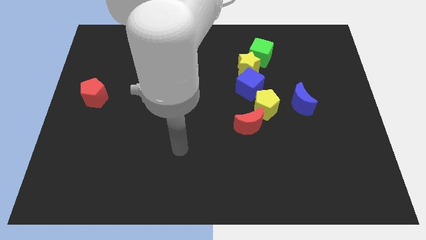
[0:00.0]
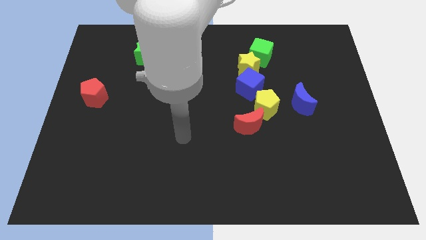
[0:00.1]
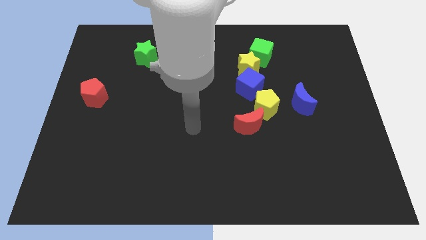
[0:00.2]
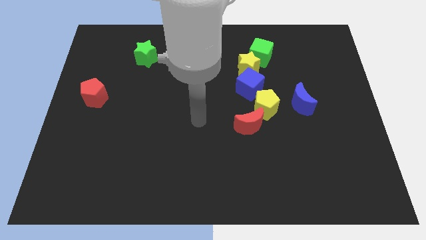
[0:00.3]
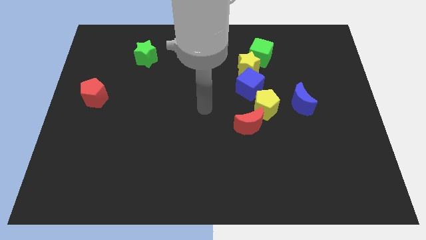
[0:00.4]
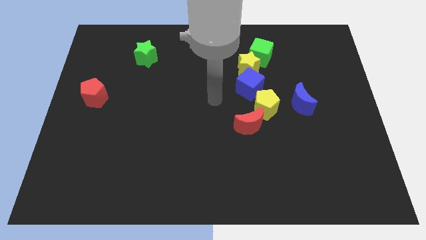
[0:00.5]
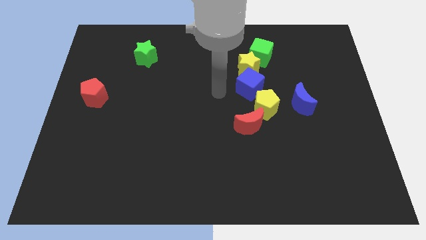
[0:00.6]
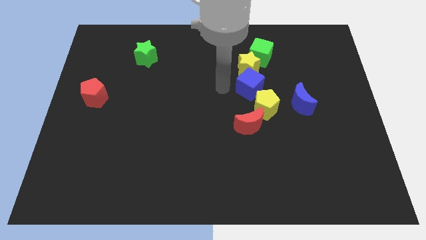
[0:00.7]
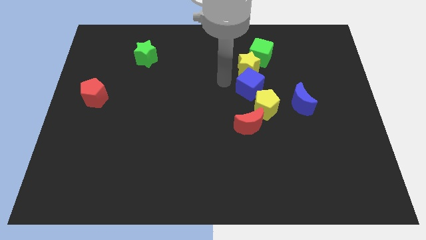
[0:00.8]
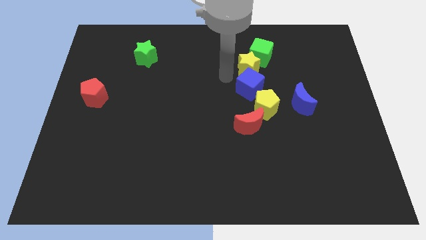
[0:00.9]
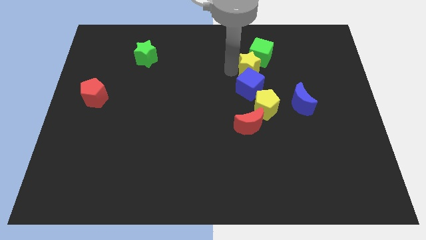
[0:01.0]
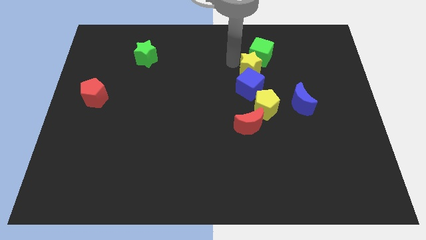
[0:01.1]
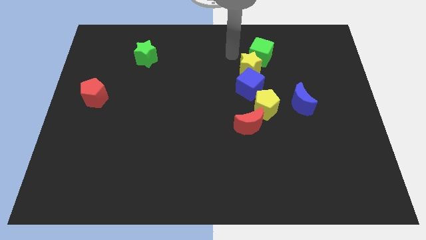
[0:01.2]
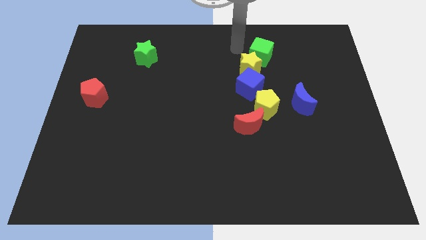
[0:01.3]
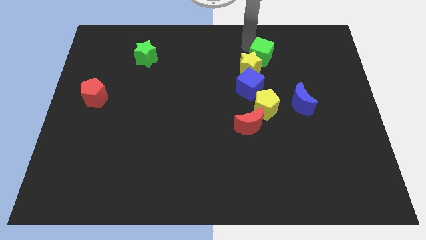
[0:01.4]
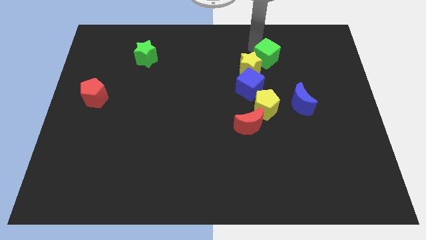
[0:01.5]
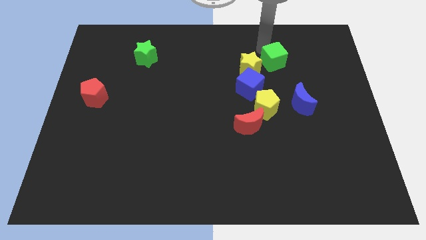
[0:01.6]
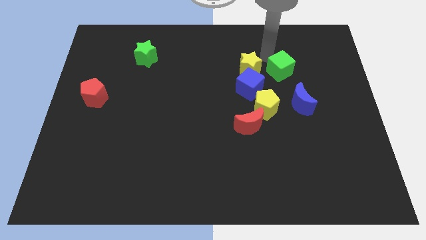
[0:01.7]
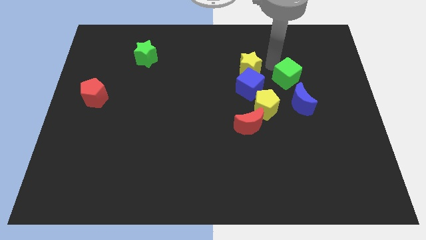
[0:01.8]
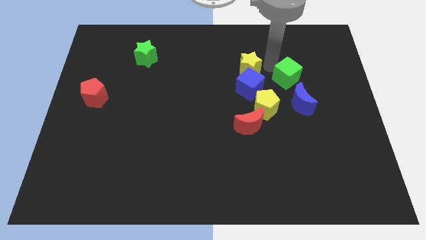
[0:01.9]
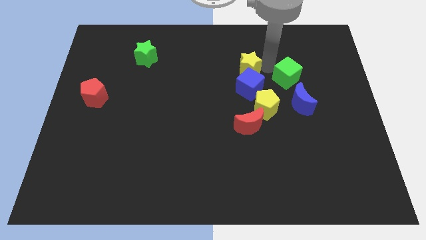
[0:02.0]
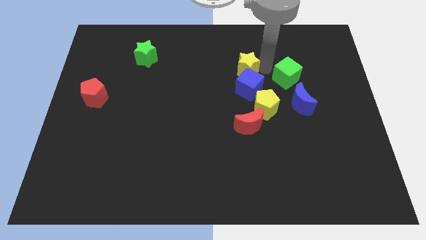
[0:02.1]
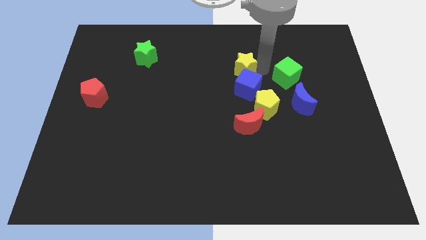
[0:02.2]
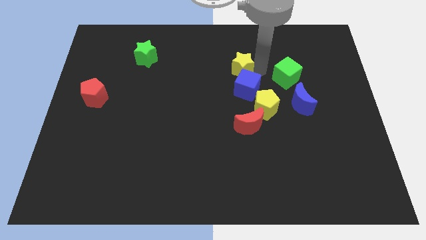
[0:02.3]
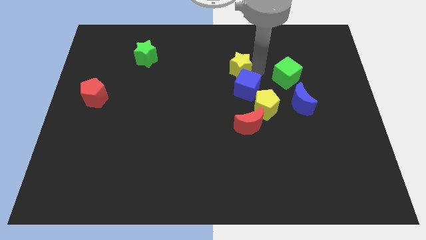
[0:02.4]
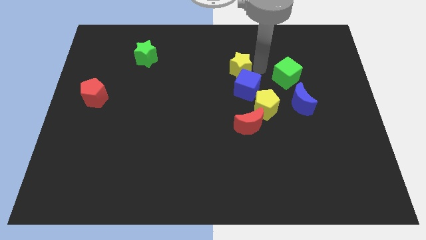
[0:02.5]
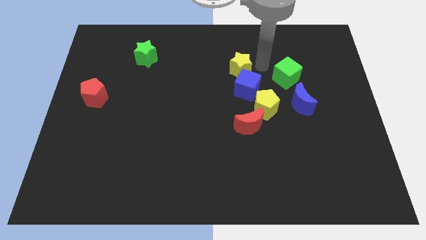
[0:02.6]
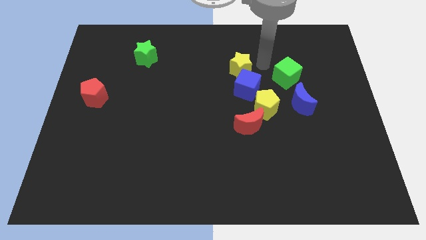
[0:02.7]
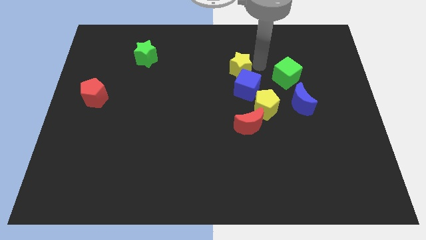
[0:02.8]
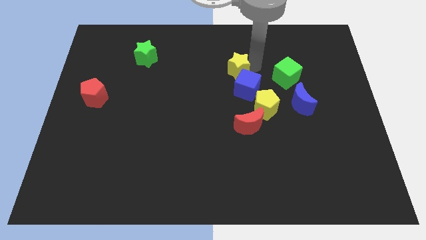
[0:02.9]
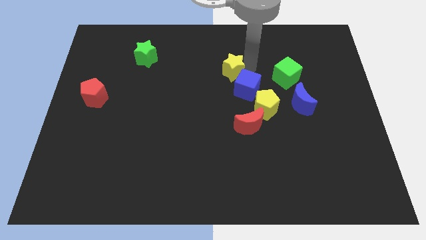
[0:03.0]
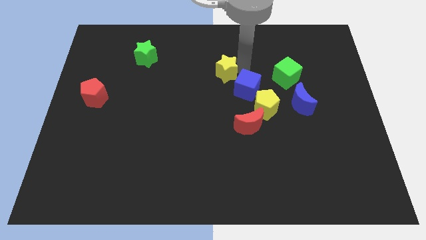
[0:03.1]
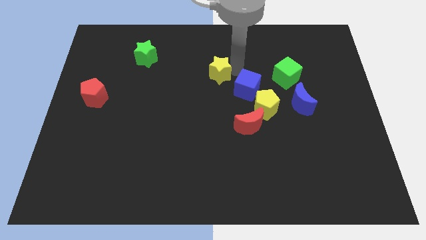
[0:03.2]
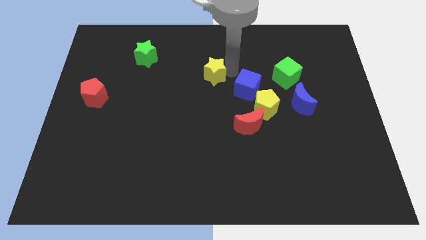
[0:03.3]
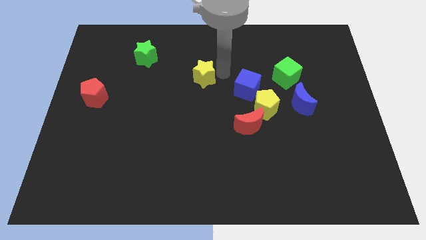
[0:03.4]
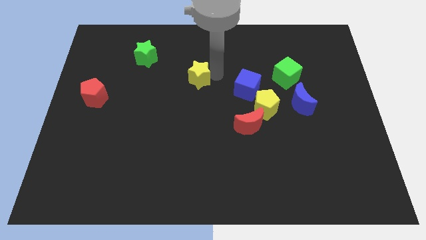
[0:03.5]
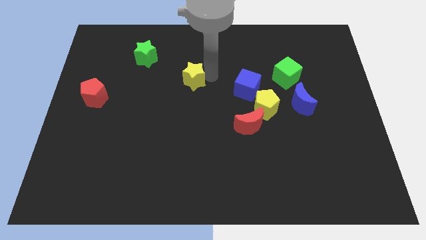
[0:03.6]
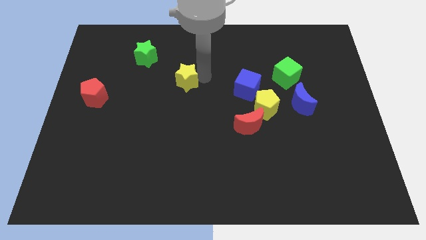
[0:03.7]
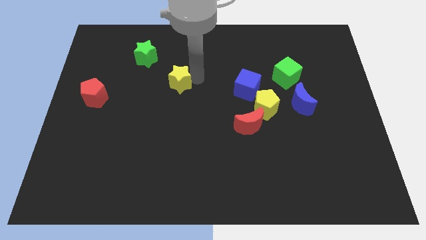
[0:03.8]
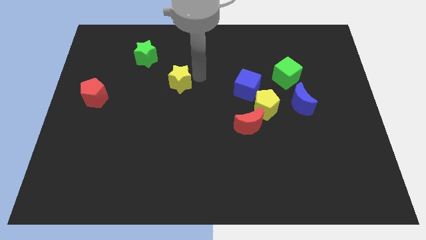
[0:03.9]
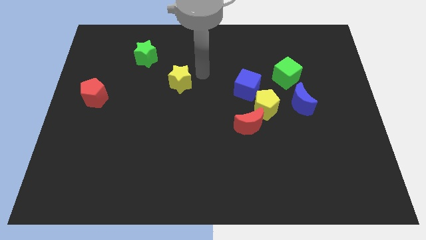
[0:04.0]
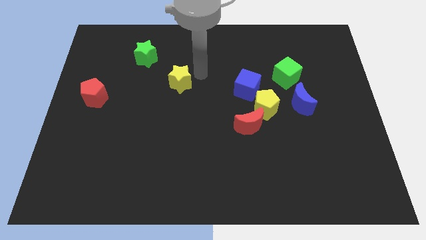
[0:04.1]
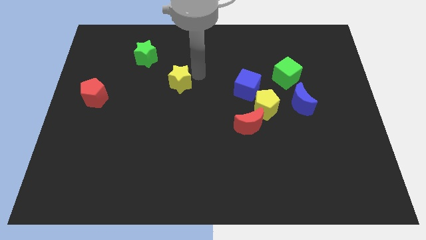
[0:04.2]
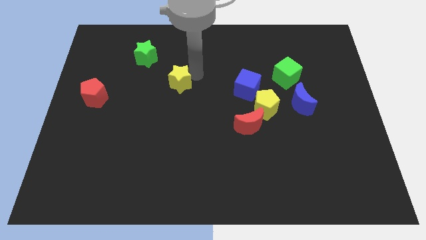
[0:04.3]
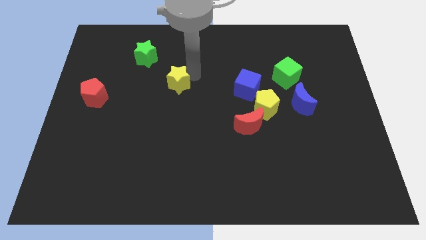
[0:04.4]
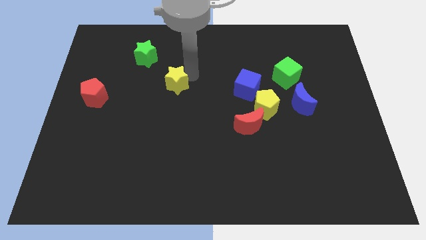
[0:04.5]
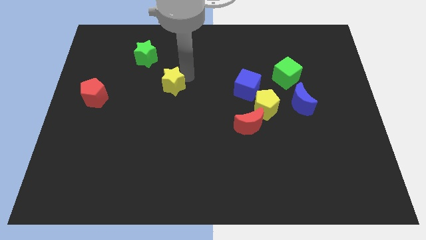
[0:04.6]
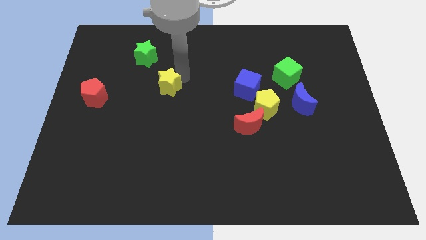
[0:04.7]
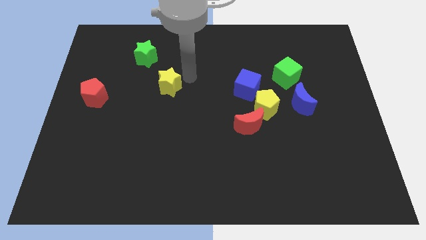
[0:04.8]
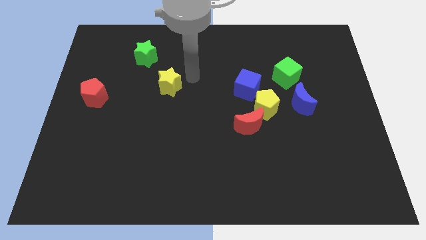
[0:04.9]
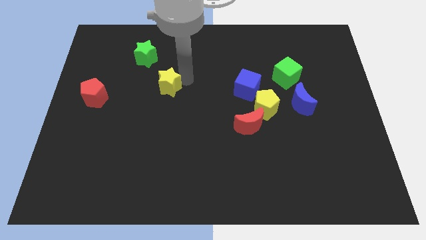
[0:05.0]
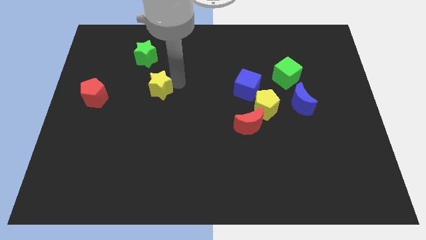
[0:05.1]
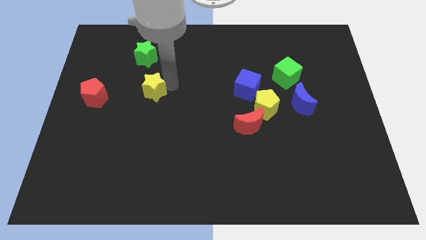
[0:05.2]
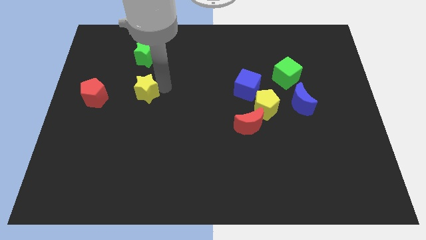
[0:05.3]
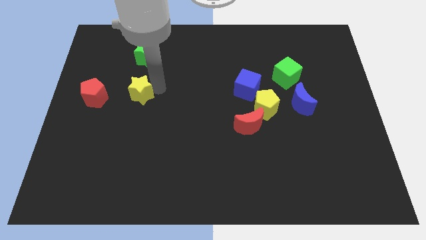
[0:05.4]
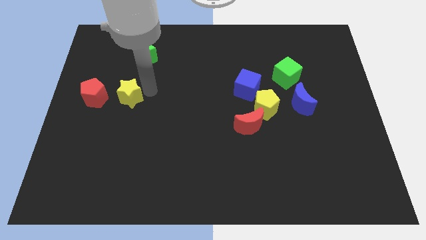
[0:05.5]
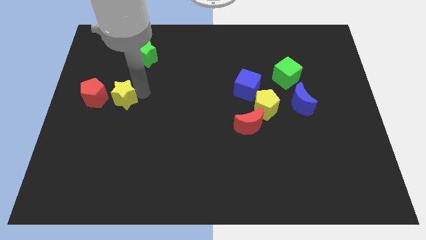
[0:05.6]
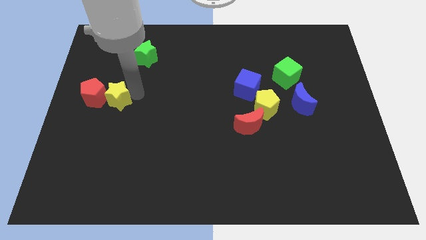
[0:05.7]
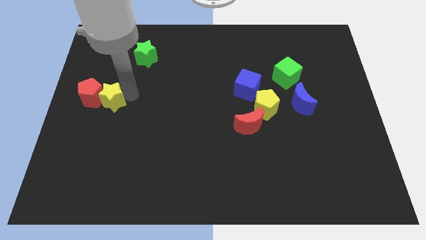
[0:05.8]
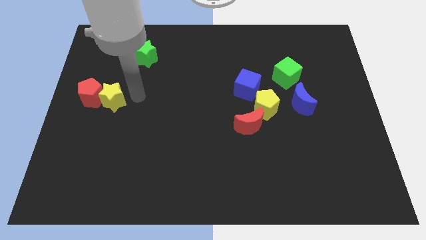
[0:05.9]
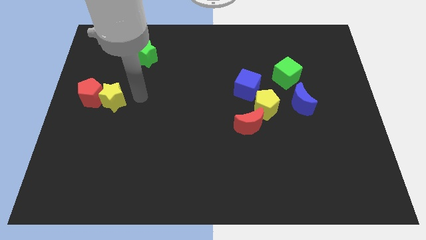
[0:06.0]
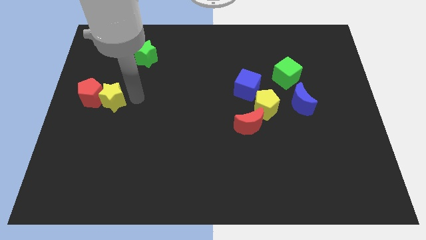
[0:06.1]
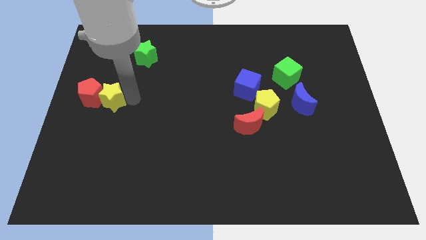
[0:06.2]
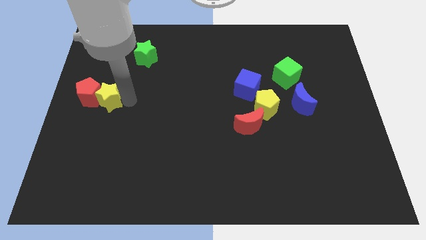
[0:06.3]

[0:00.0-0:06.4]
move the yellow star to the left side of the board

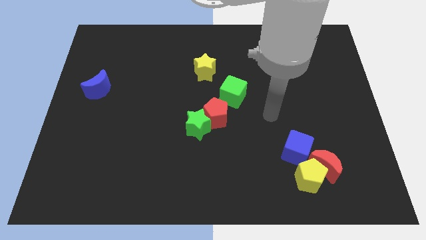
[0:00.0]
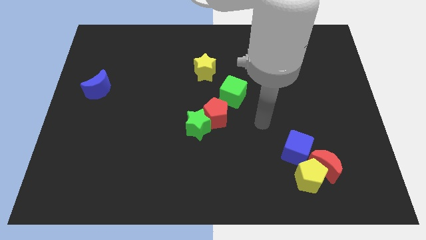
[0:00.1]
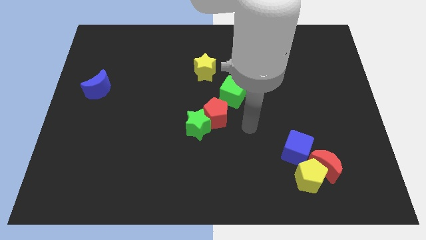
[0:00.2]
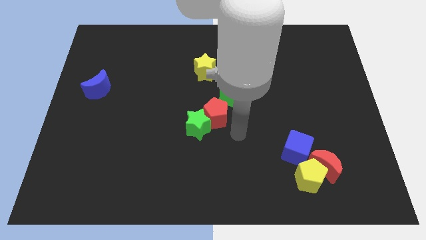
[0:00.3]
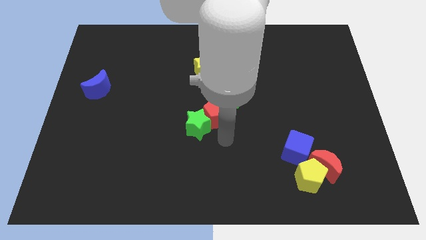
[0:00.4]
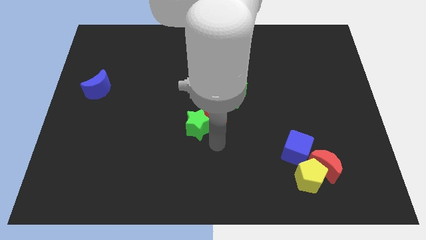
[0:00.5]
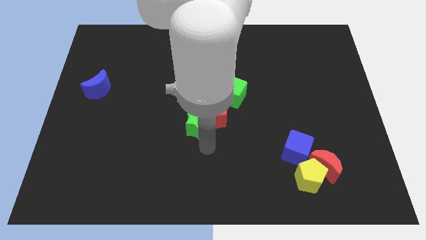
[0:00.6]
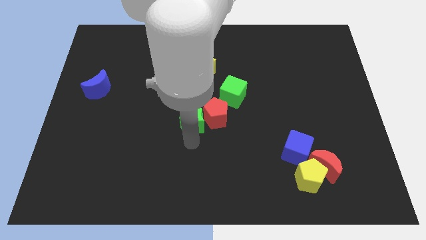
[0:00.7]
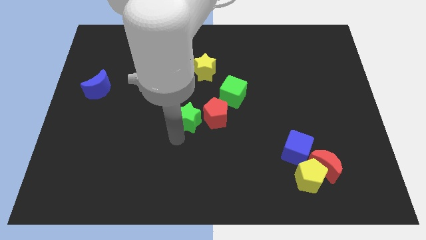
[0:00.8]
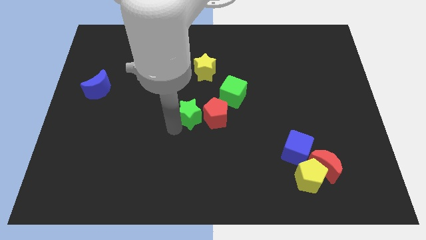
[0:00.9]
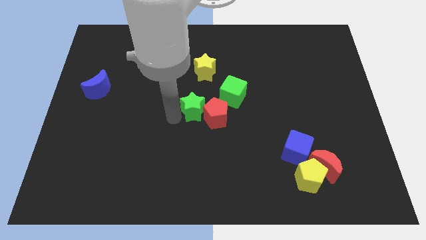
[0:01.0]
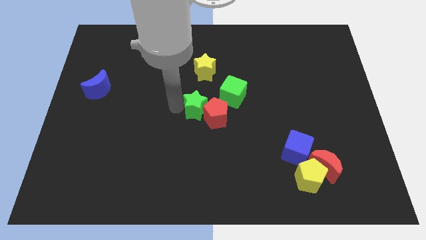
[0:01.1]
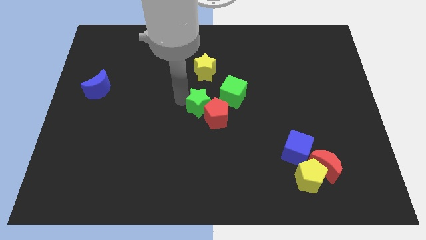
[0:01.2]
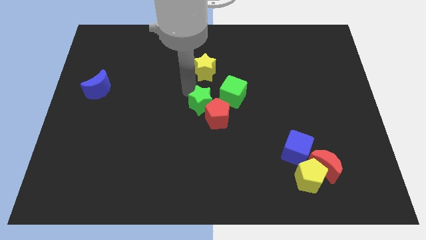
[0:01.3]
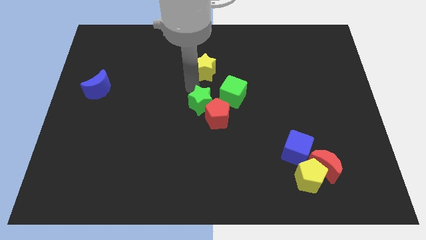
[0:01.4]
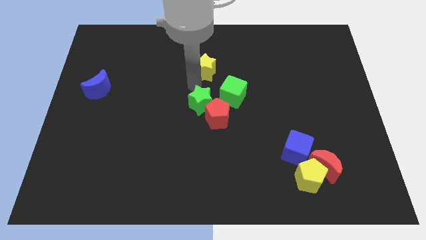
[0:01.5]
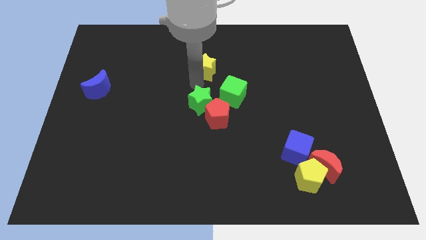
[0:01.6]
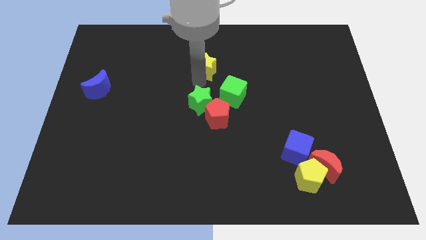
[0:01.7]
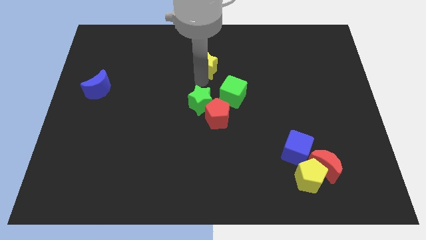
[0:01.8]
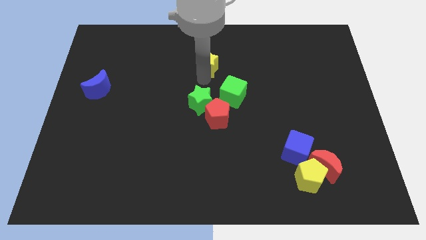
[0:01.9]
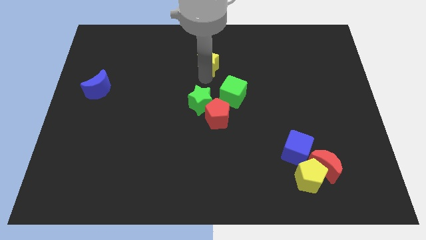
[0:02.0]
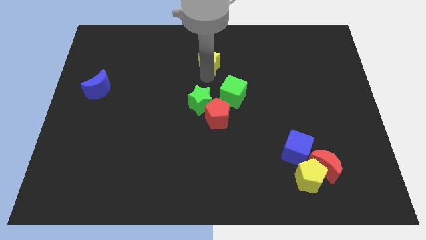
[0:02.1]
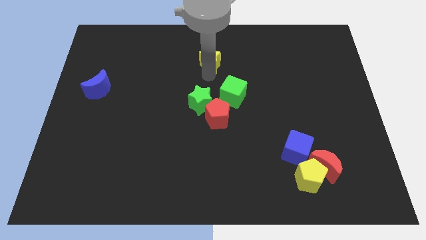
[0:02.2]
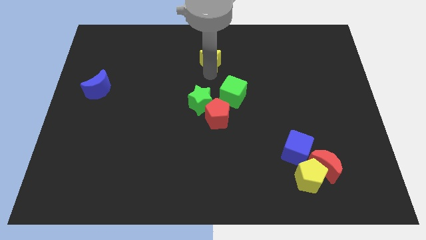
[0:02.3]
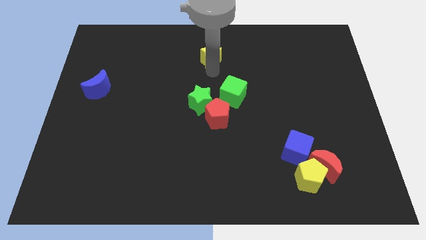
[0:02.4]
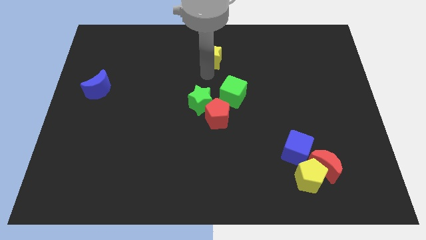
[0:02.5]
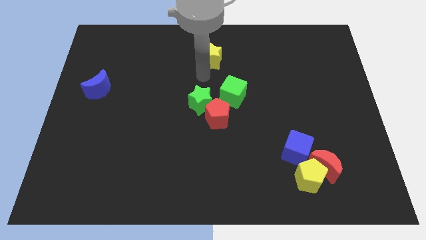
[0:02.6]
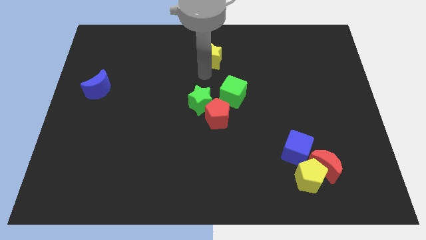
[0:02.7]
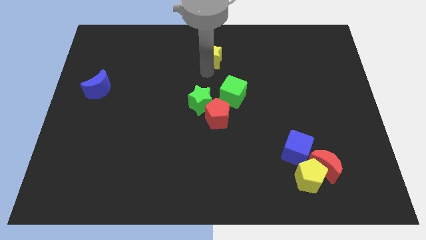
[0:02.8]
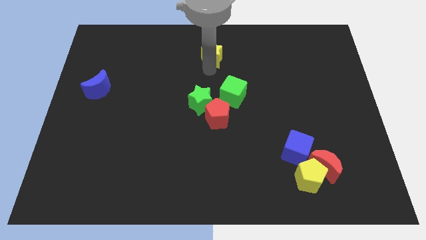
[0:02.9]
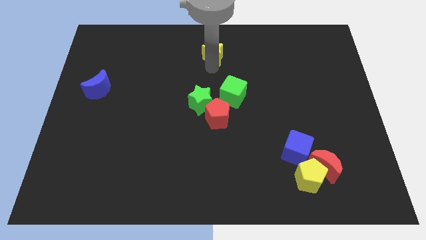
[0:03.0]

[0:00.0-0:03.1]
move the yellow star to the top side
